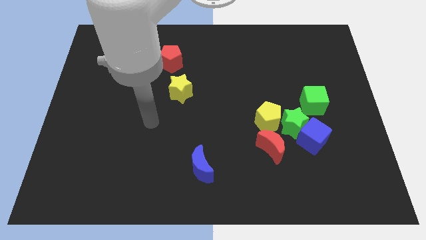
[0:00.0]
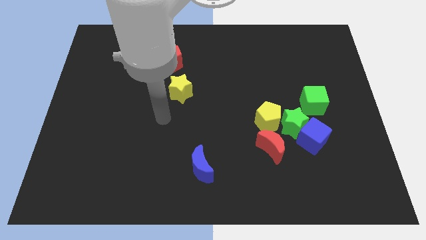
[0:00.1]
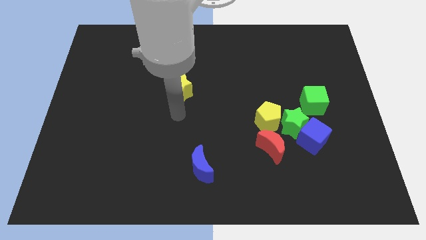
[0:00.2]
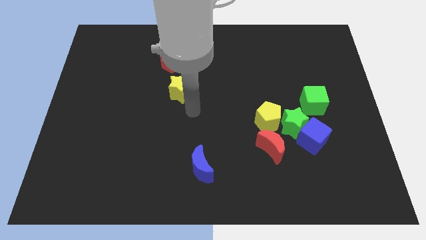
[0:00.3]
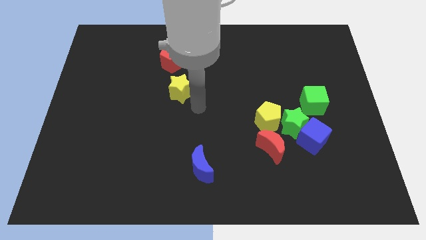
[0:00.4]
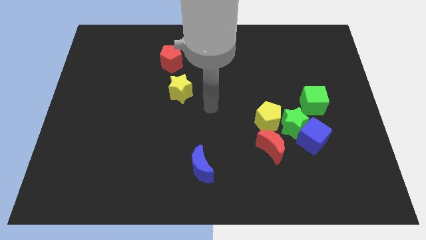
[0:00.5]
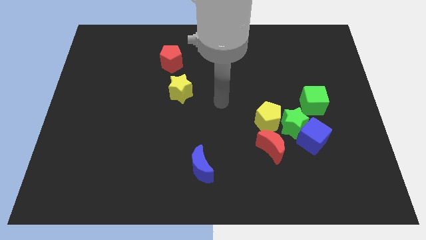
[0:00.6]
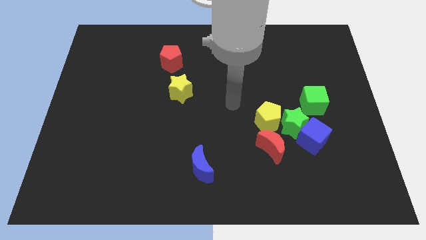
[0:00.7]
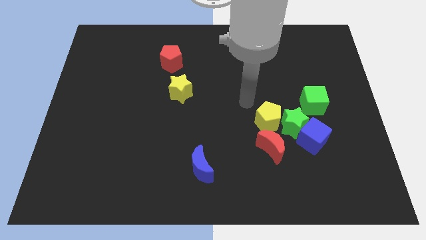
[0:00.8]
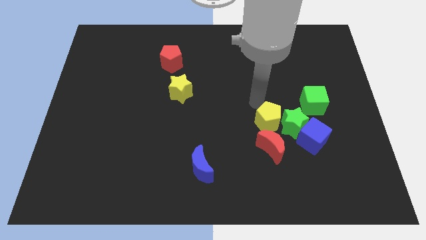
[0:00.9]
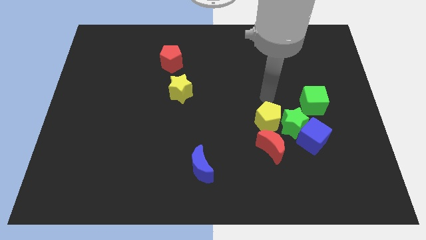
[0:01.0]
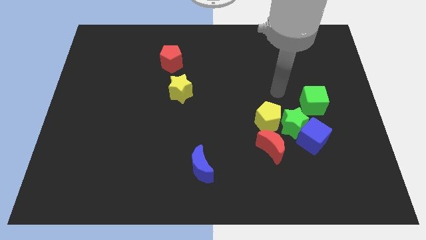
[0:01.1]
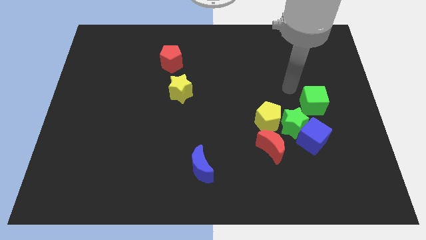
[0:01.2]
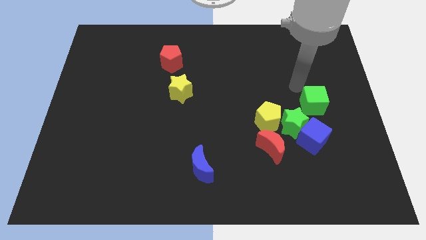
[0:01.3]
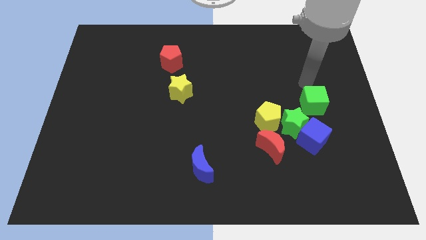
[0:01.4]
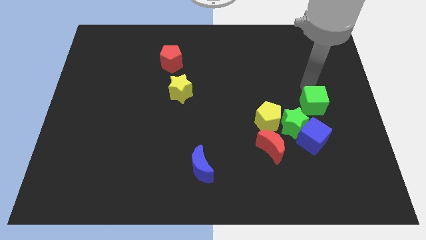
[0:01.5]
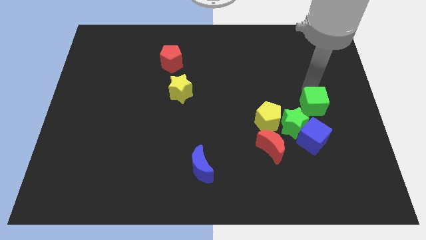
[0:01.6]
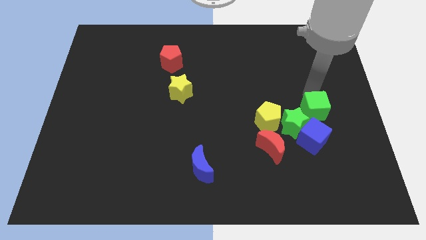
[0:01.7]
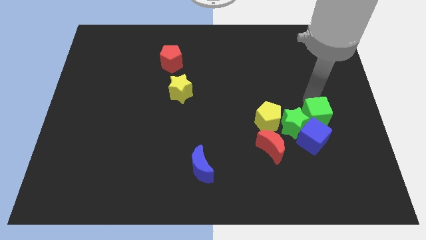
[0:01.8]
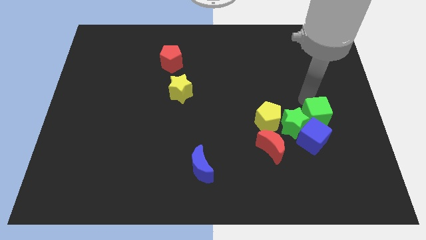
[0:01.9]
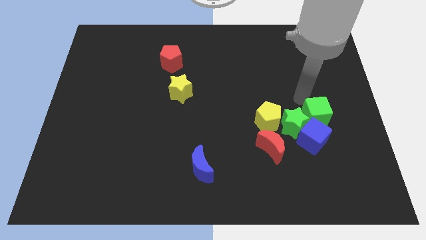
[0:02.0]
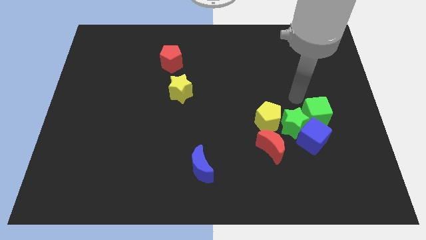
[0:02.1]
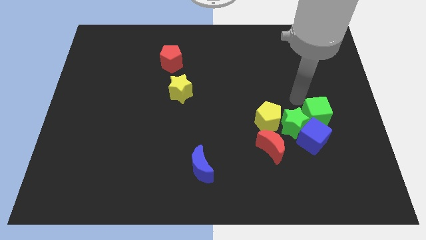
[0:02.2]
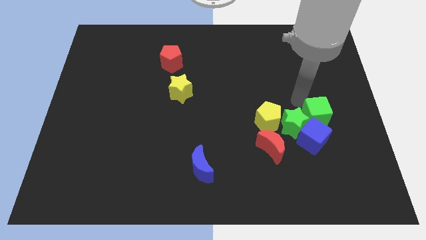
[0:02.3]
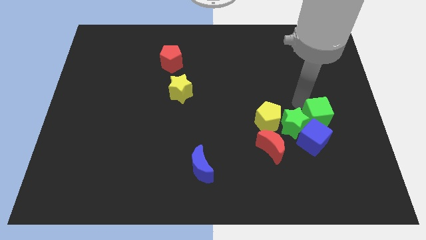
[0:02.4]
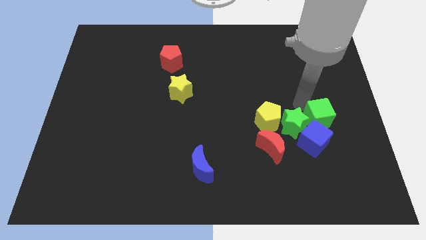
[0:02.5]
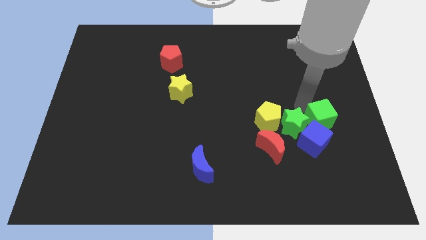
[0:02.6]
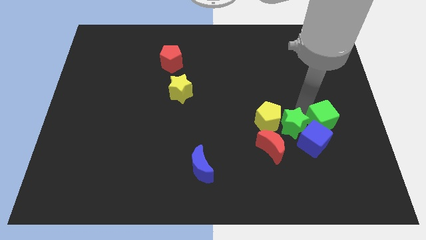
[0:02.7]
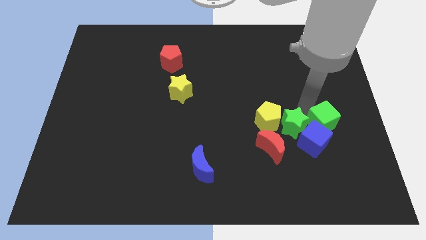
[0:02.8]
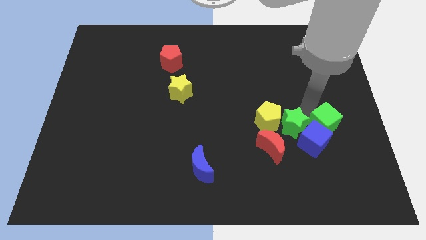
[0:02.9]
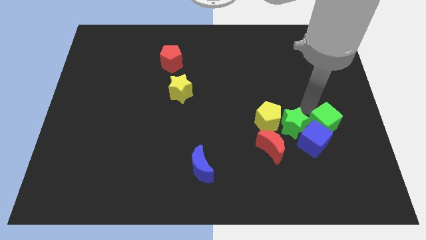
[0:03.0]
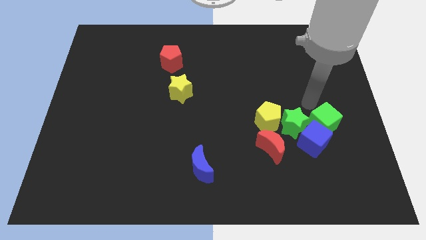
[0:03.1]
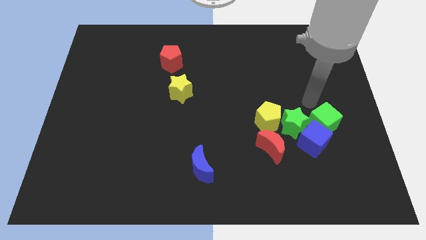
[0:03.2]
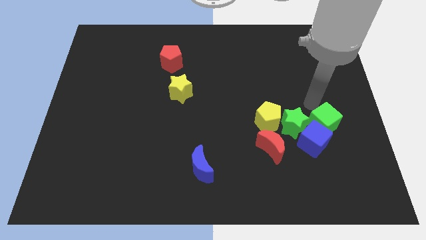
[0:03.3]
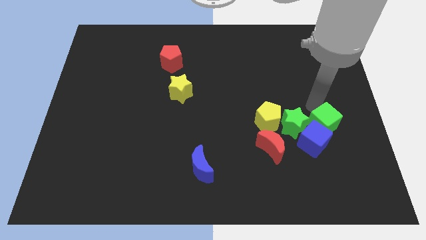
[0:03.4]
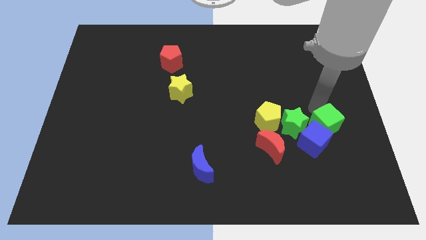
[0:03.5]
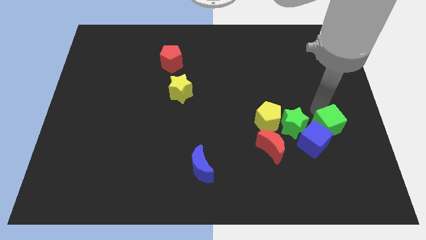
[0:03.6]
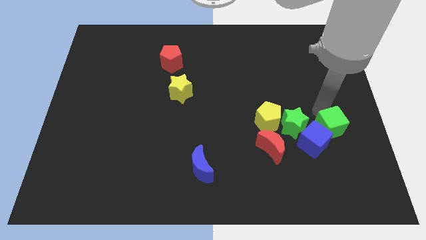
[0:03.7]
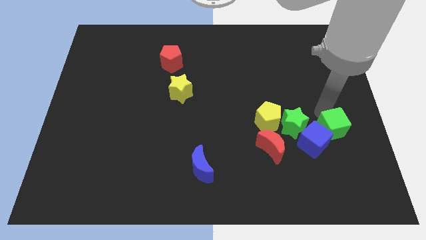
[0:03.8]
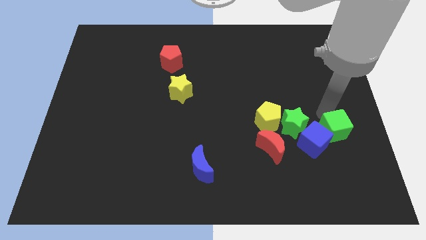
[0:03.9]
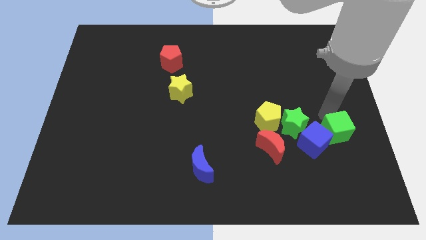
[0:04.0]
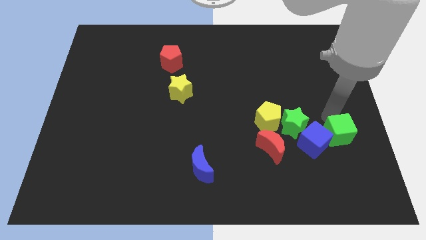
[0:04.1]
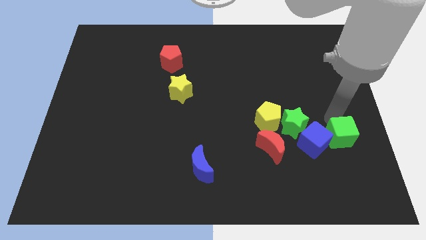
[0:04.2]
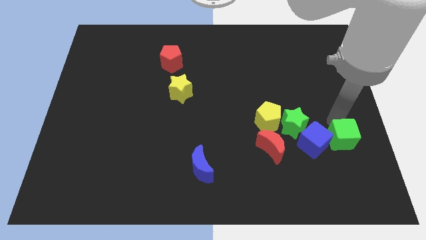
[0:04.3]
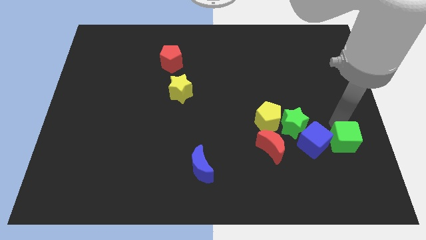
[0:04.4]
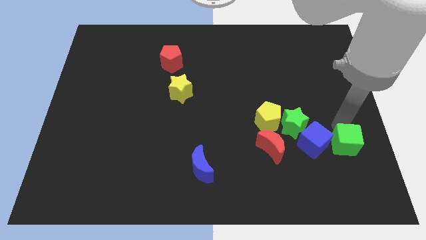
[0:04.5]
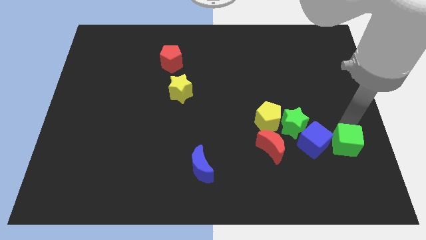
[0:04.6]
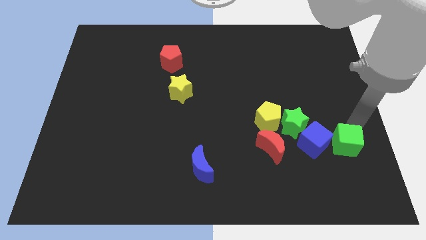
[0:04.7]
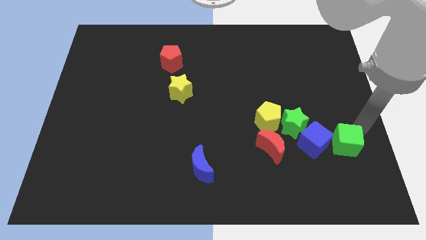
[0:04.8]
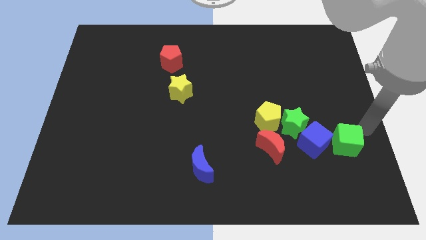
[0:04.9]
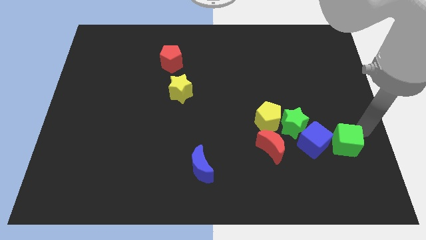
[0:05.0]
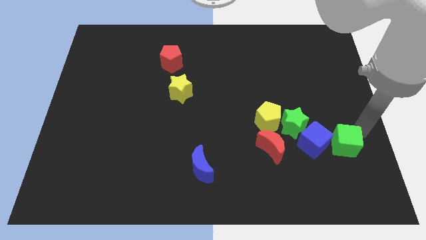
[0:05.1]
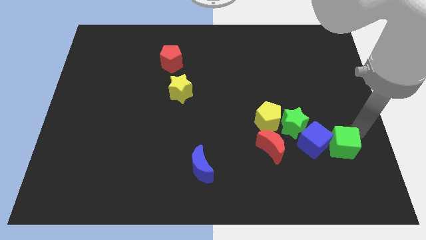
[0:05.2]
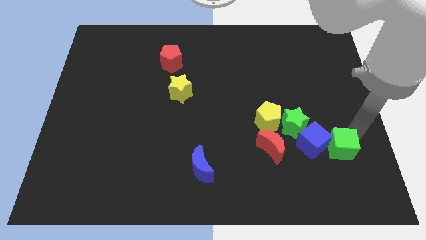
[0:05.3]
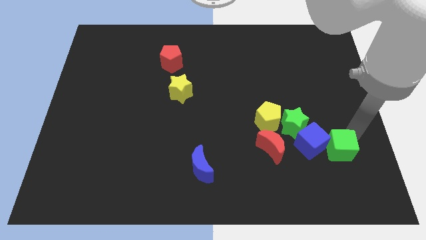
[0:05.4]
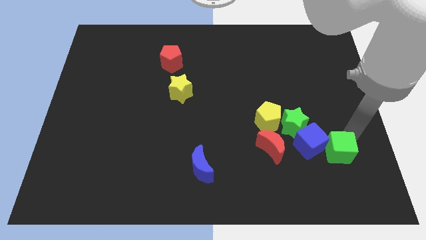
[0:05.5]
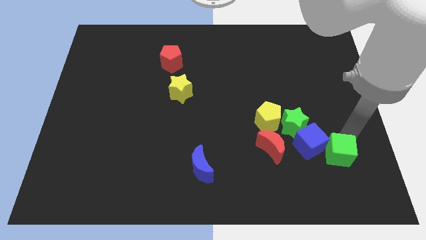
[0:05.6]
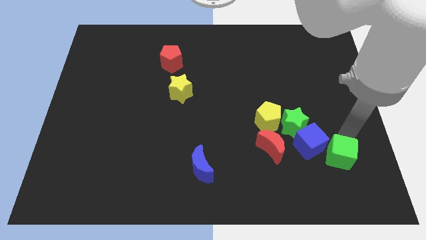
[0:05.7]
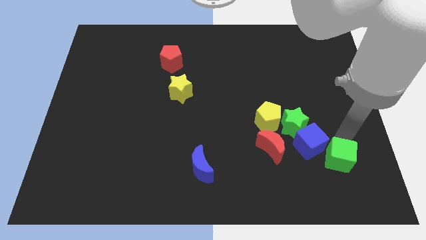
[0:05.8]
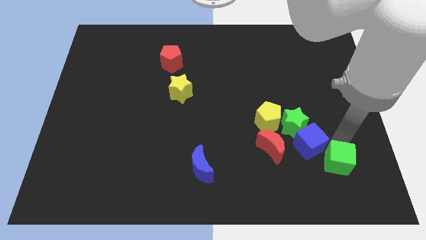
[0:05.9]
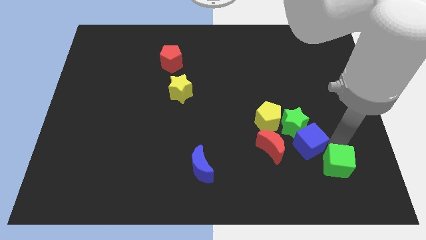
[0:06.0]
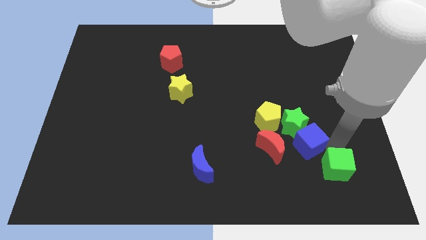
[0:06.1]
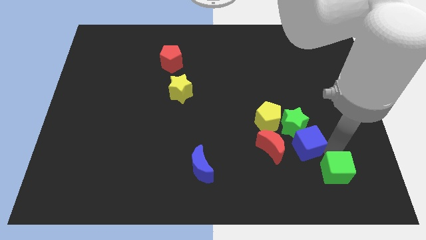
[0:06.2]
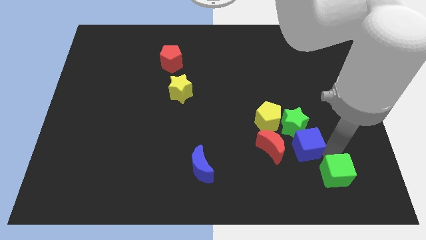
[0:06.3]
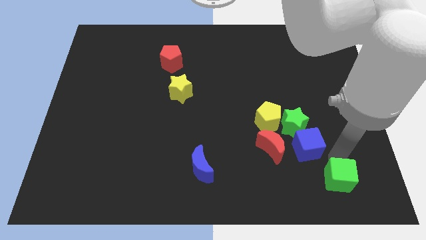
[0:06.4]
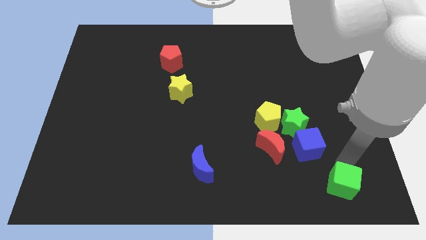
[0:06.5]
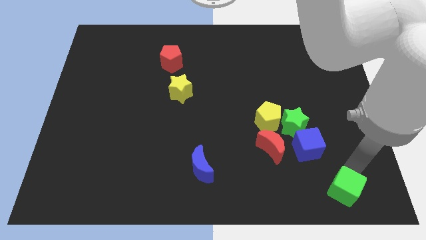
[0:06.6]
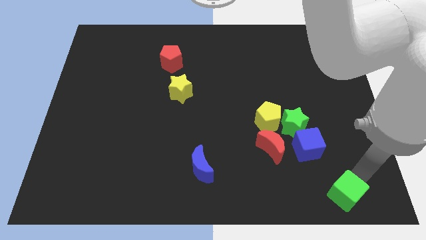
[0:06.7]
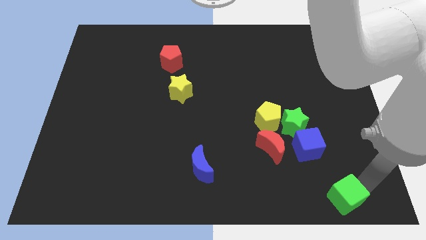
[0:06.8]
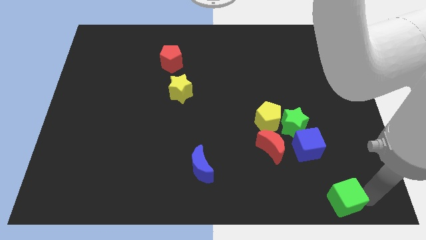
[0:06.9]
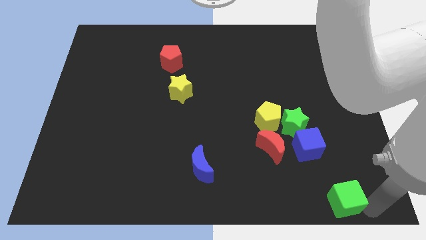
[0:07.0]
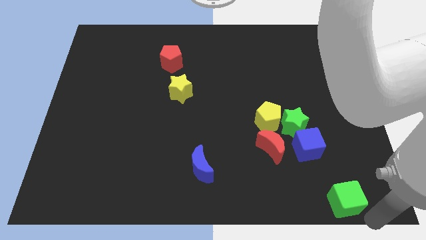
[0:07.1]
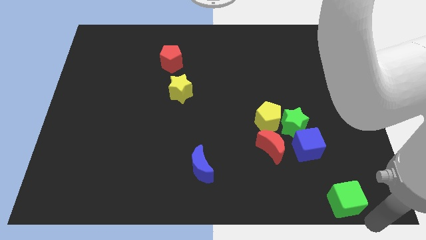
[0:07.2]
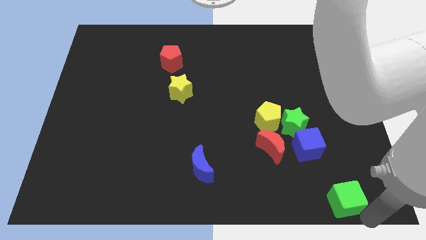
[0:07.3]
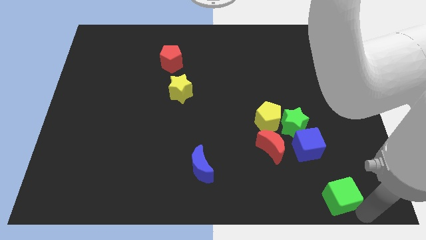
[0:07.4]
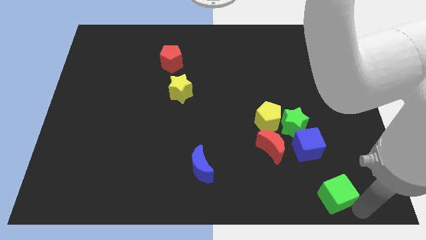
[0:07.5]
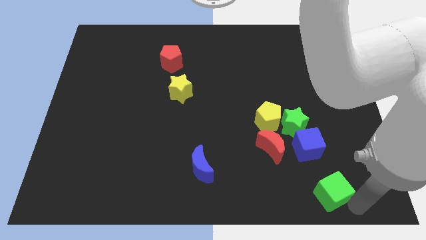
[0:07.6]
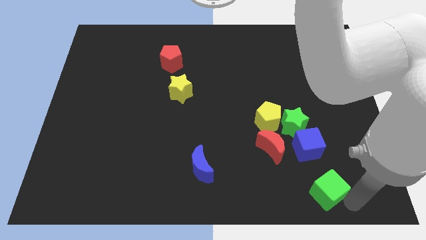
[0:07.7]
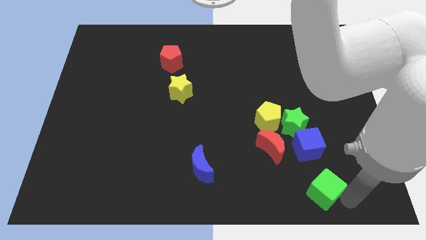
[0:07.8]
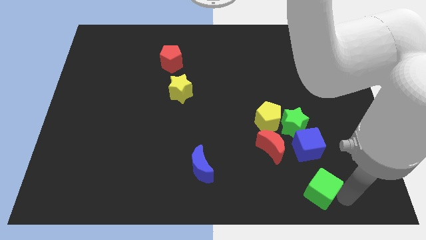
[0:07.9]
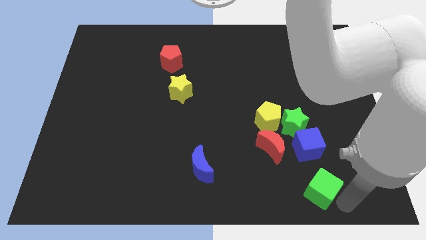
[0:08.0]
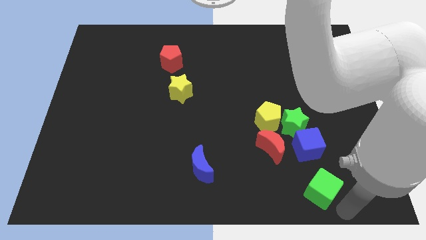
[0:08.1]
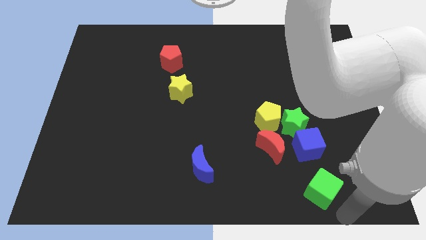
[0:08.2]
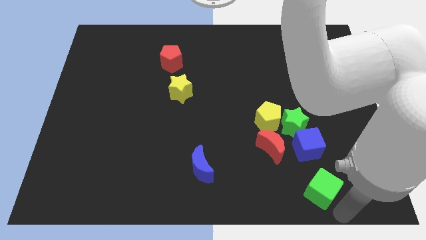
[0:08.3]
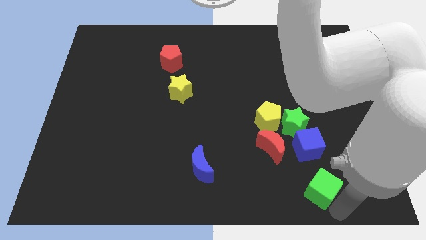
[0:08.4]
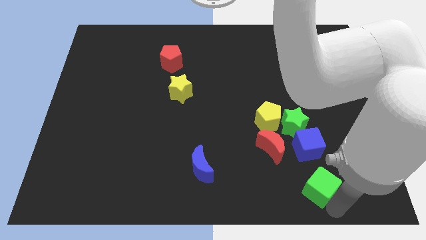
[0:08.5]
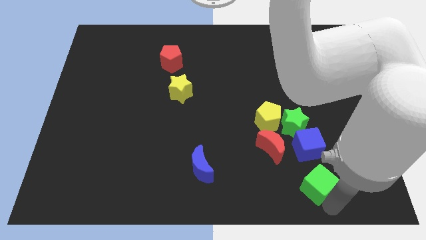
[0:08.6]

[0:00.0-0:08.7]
push the green cube to the bottom side of the green star
